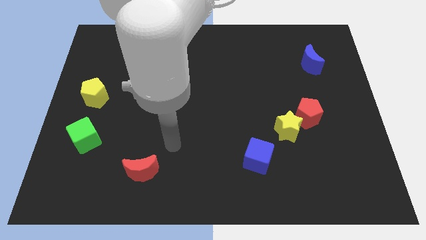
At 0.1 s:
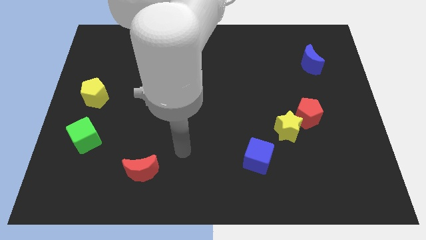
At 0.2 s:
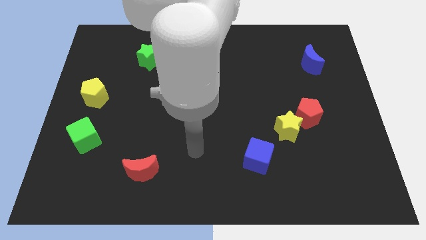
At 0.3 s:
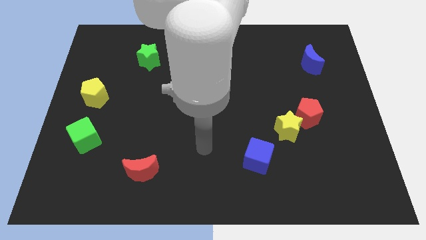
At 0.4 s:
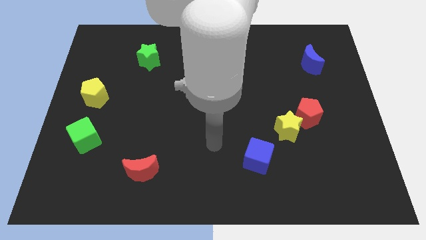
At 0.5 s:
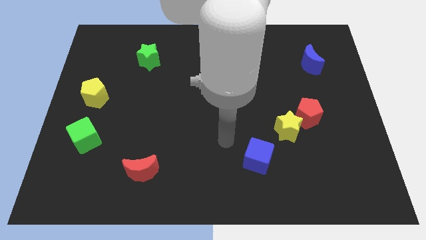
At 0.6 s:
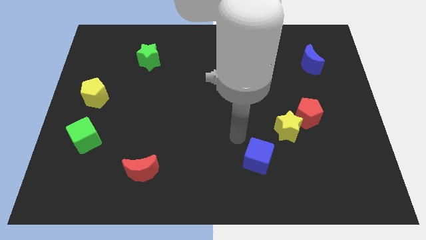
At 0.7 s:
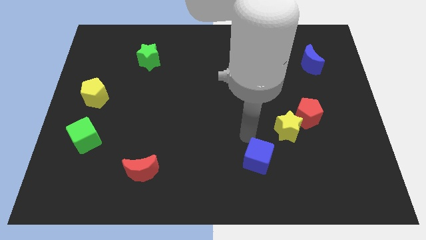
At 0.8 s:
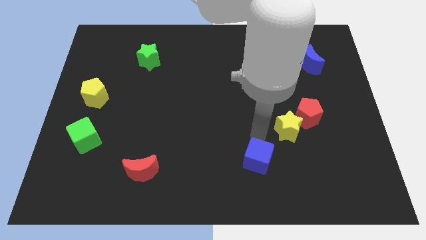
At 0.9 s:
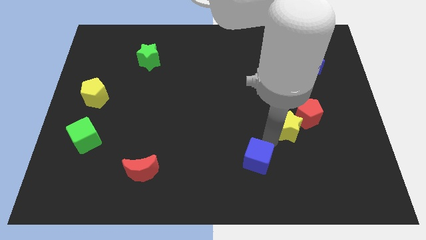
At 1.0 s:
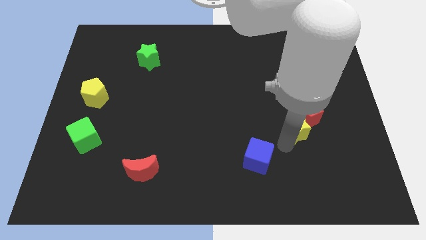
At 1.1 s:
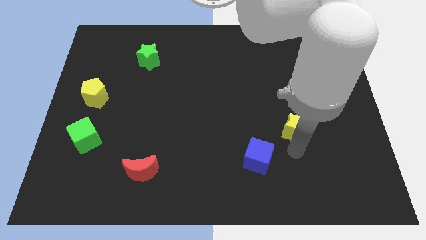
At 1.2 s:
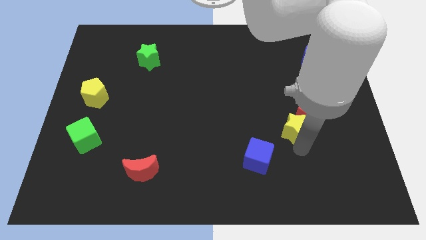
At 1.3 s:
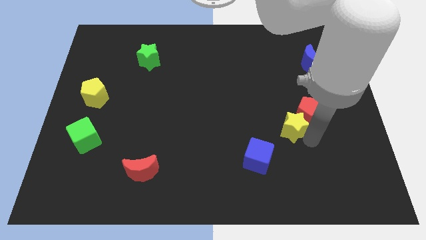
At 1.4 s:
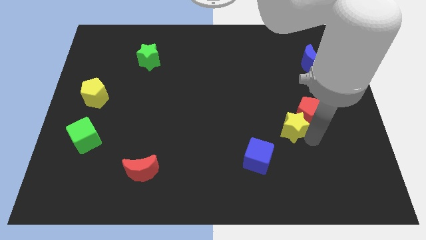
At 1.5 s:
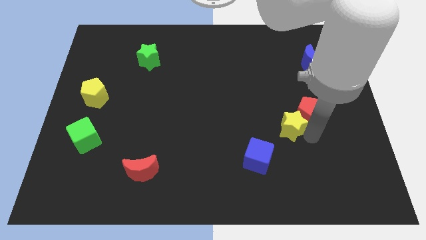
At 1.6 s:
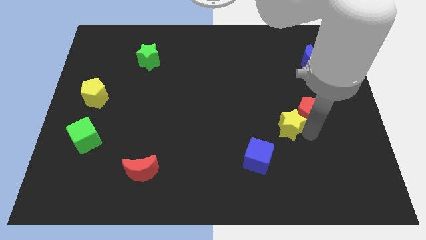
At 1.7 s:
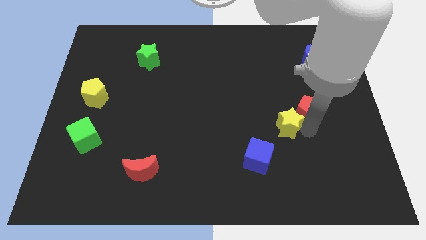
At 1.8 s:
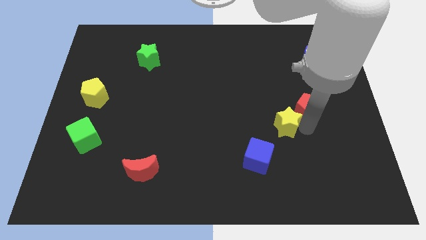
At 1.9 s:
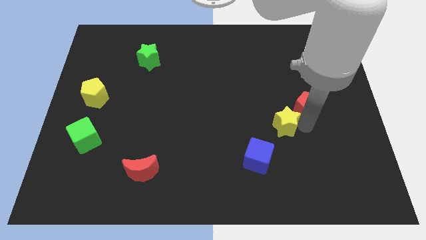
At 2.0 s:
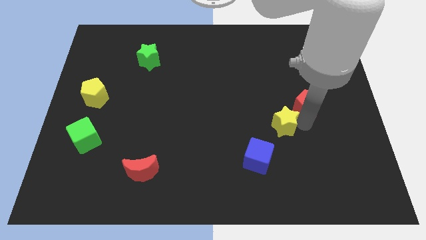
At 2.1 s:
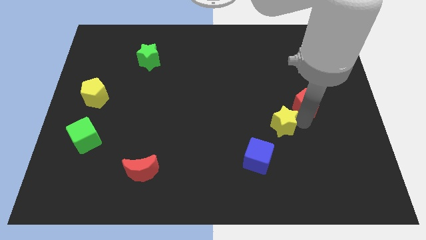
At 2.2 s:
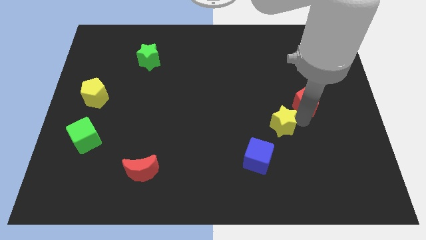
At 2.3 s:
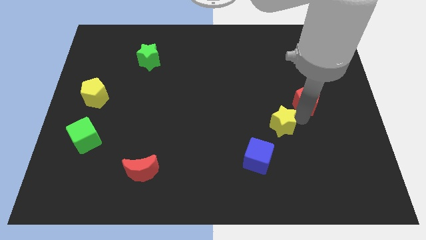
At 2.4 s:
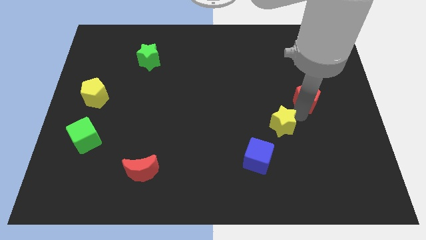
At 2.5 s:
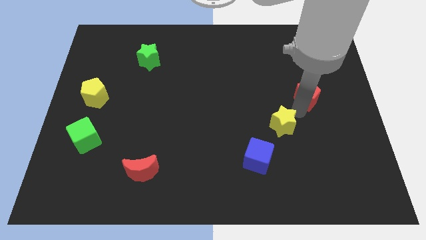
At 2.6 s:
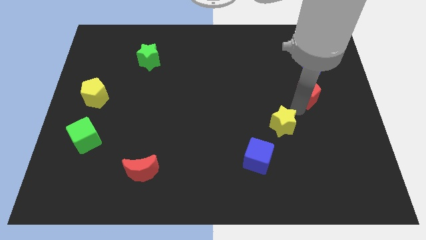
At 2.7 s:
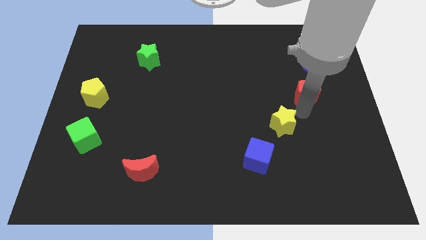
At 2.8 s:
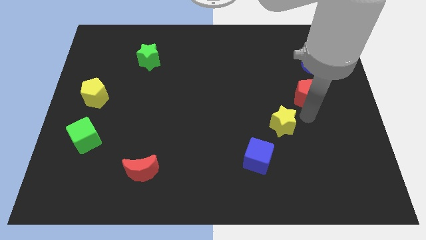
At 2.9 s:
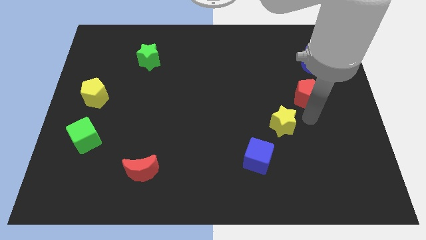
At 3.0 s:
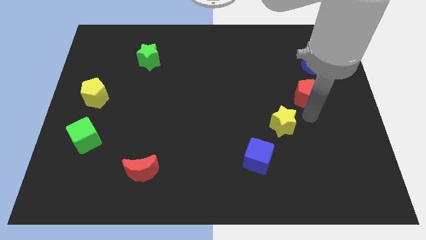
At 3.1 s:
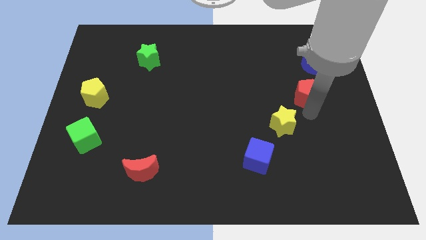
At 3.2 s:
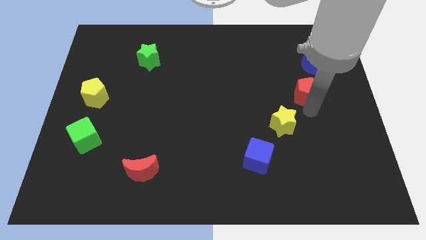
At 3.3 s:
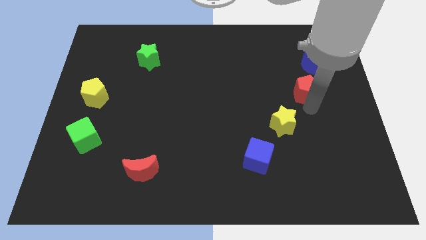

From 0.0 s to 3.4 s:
slightly move the red pentagon up

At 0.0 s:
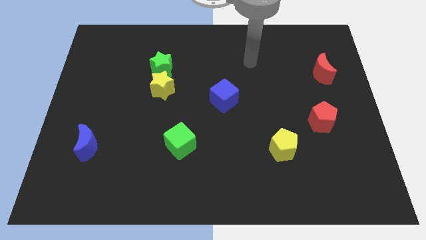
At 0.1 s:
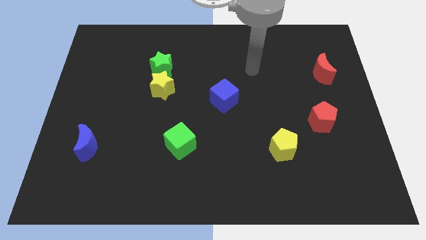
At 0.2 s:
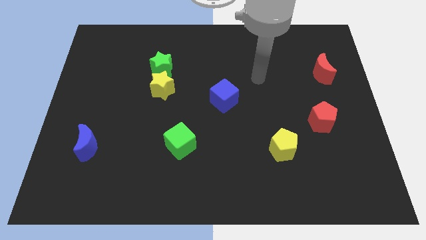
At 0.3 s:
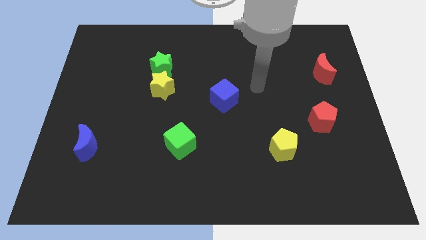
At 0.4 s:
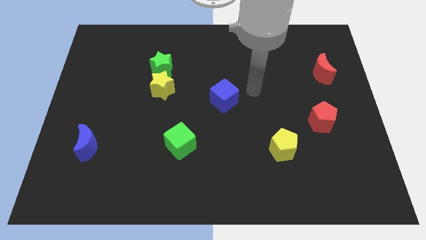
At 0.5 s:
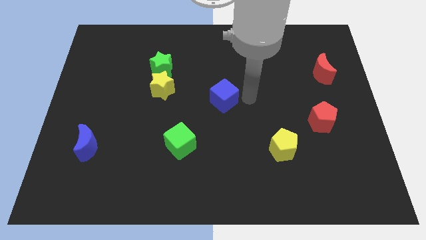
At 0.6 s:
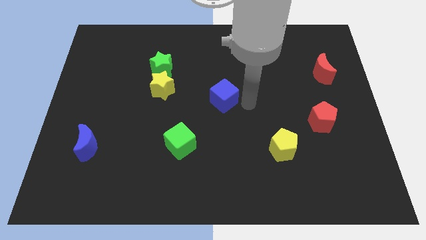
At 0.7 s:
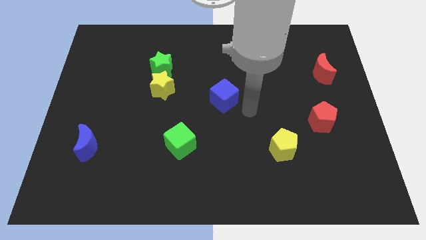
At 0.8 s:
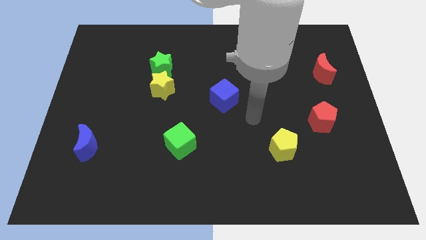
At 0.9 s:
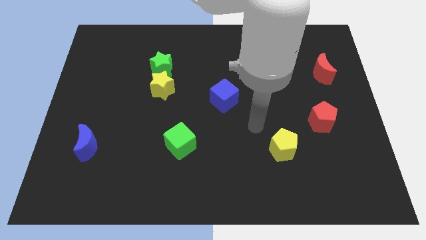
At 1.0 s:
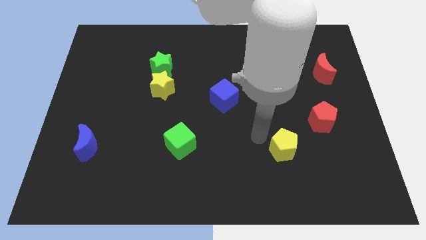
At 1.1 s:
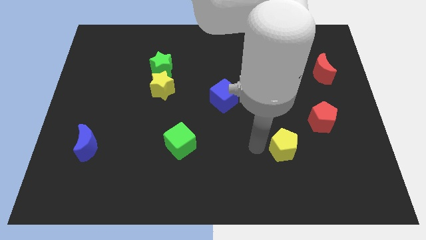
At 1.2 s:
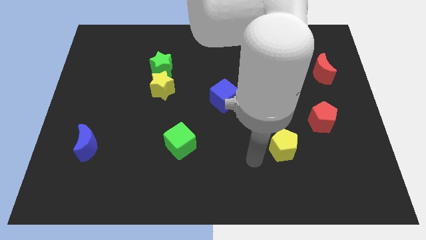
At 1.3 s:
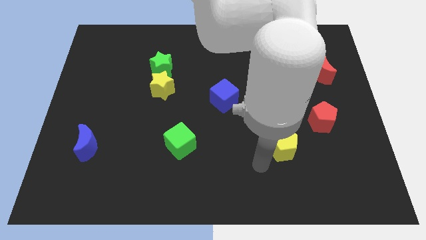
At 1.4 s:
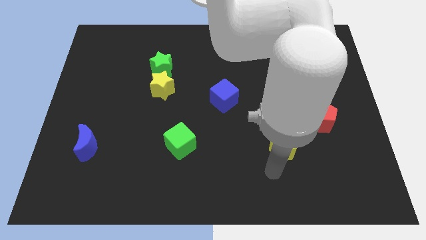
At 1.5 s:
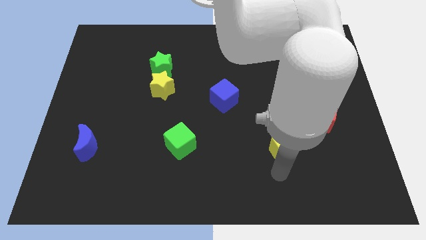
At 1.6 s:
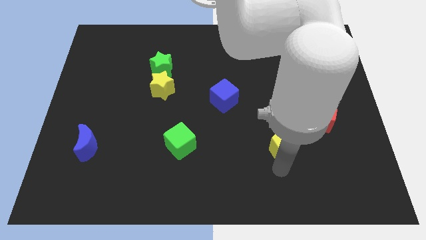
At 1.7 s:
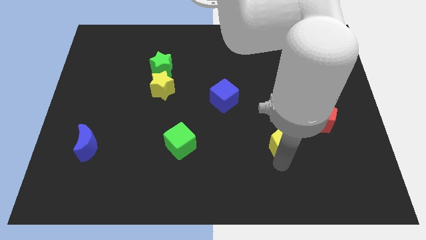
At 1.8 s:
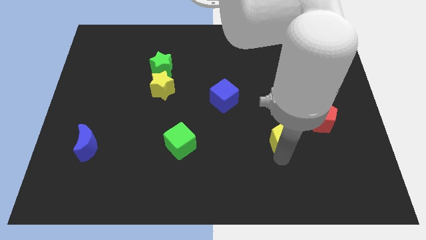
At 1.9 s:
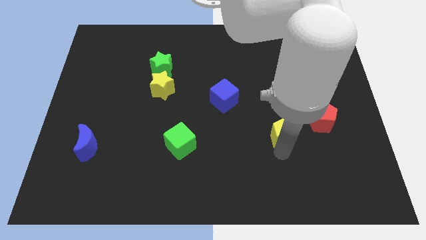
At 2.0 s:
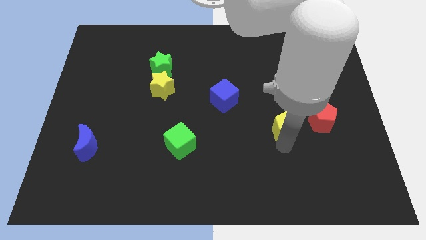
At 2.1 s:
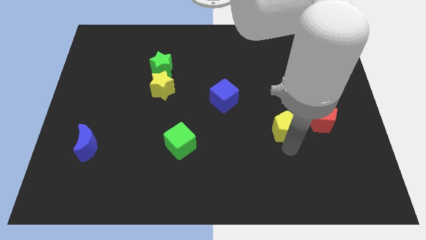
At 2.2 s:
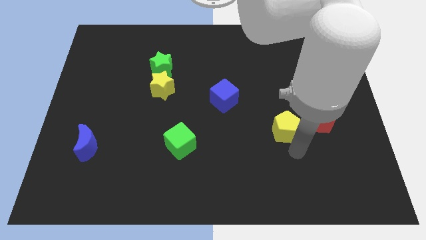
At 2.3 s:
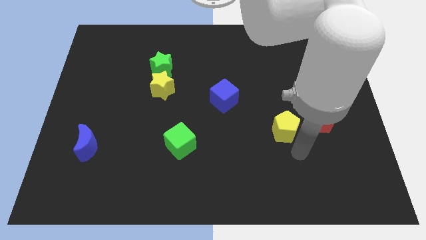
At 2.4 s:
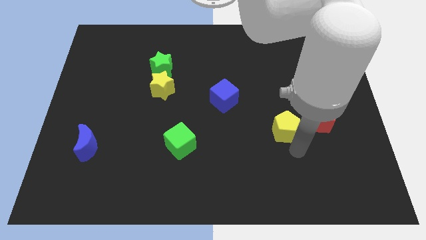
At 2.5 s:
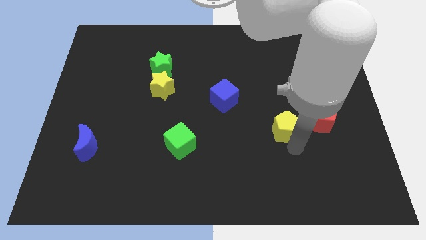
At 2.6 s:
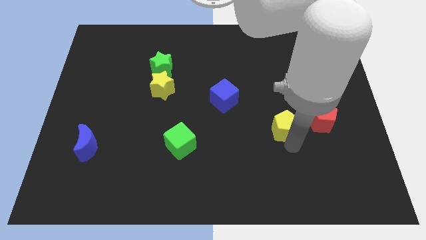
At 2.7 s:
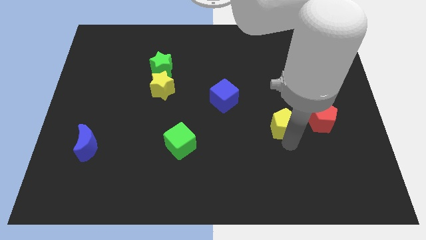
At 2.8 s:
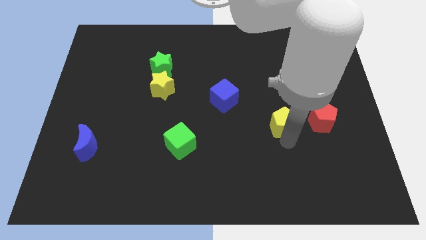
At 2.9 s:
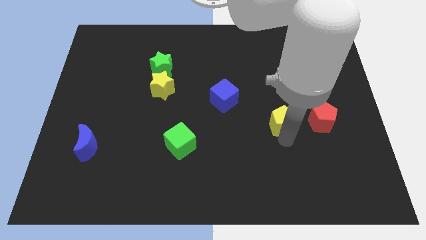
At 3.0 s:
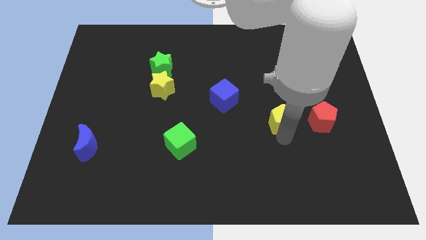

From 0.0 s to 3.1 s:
push the yellow pentagon a little upwards

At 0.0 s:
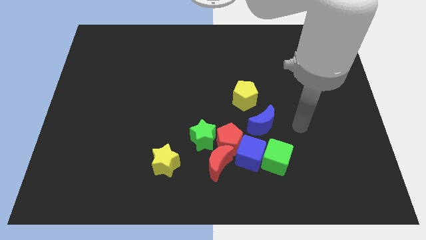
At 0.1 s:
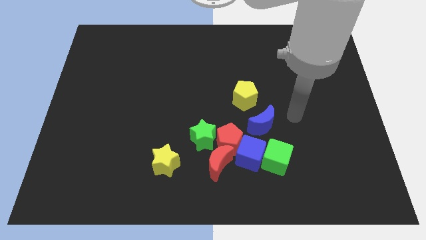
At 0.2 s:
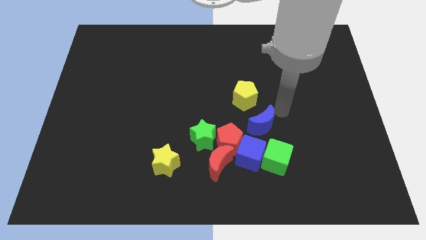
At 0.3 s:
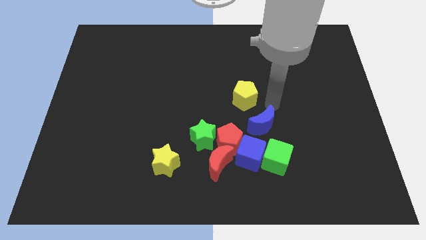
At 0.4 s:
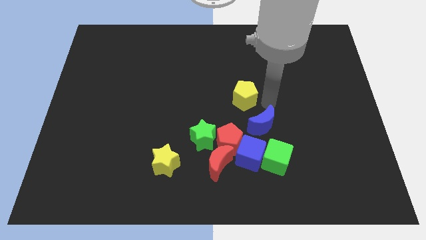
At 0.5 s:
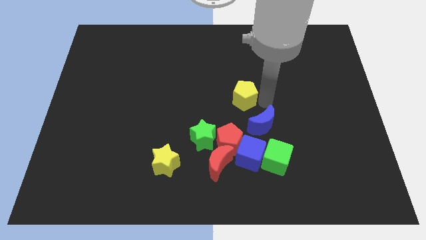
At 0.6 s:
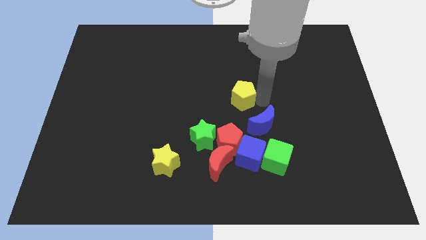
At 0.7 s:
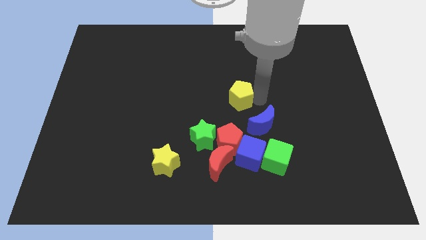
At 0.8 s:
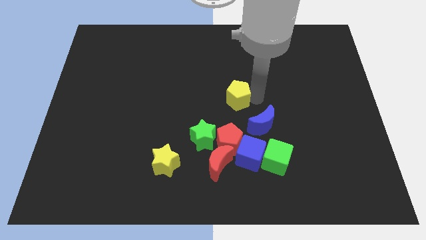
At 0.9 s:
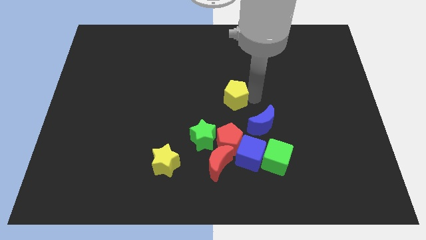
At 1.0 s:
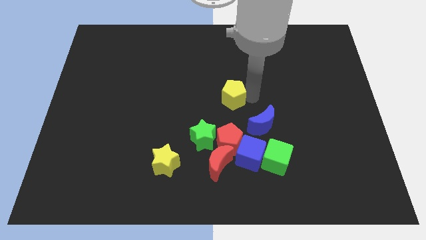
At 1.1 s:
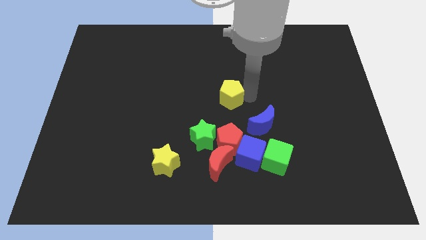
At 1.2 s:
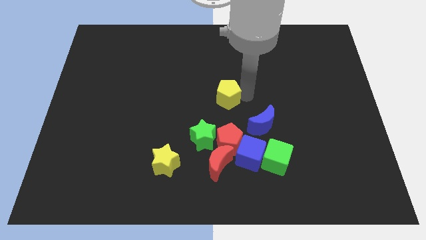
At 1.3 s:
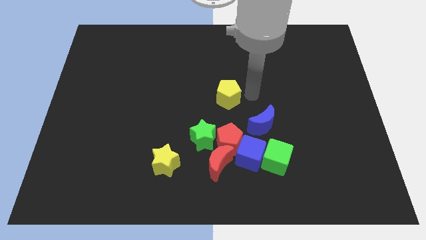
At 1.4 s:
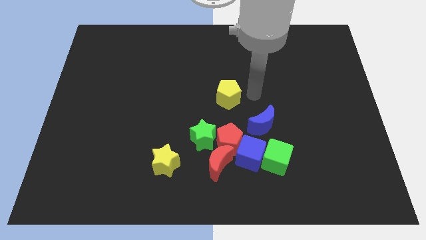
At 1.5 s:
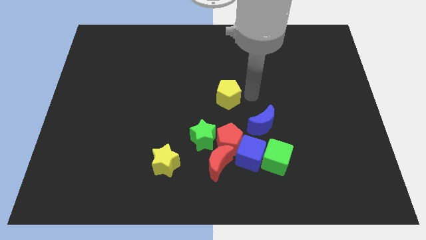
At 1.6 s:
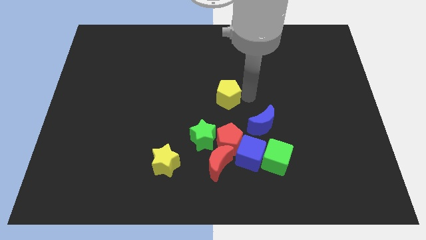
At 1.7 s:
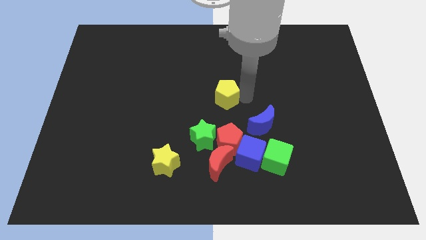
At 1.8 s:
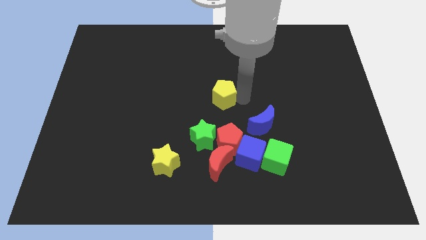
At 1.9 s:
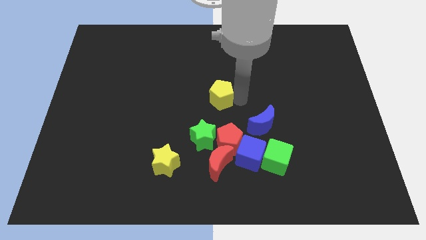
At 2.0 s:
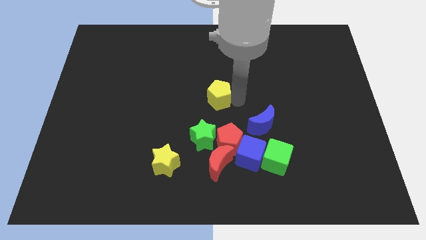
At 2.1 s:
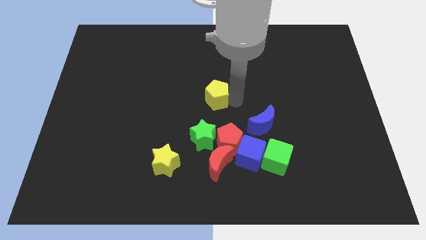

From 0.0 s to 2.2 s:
slide the yellow pentagon a bit left
